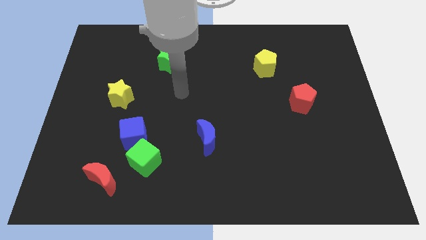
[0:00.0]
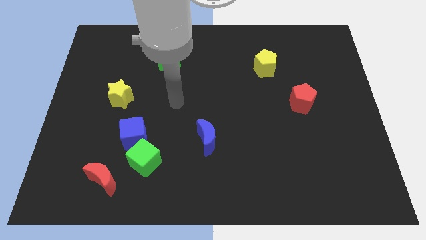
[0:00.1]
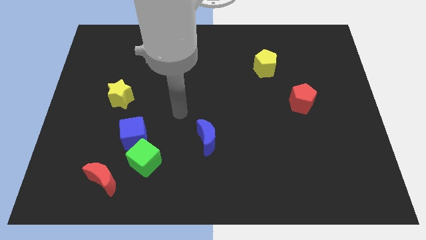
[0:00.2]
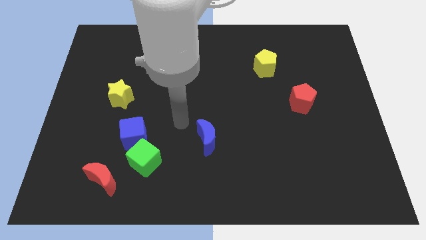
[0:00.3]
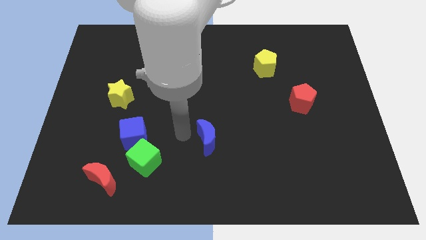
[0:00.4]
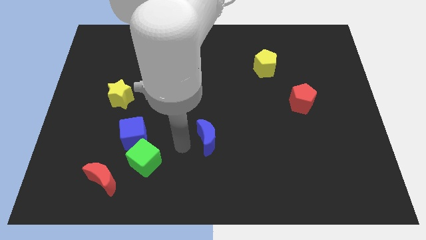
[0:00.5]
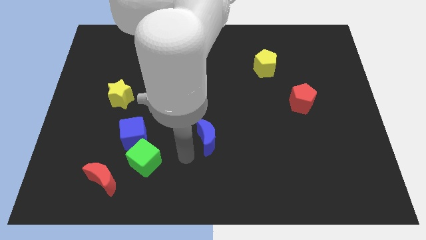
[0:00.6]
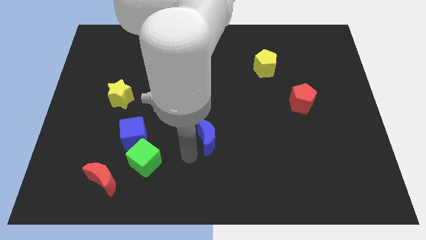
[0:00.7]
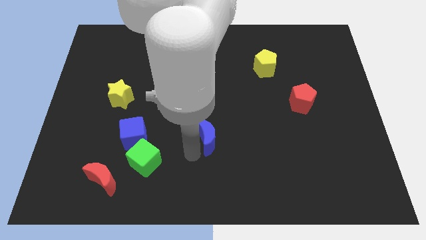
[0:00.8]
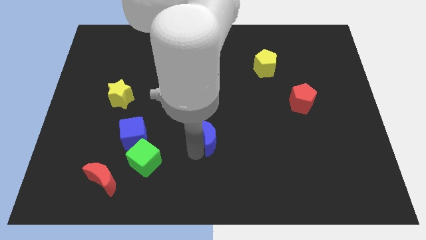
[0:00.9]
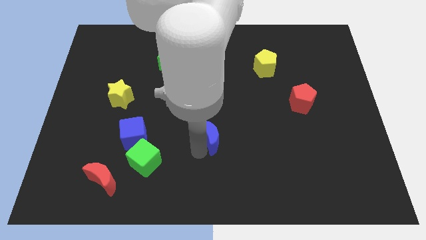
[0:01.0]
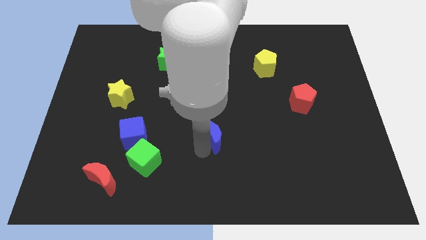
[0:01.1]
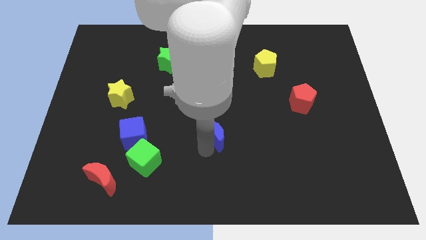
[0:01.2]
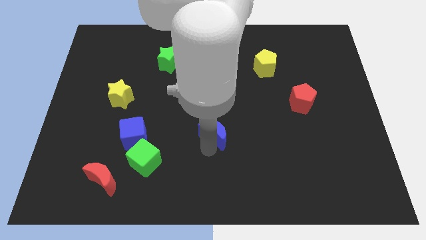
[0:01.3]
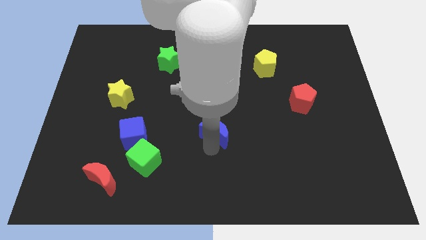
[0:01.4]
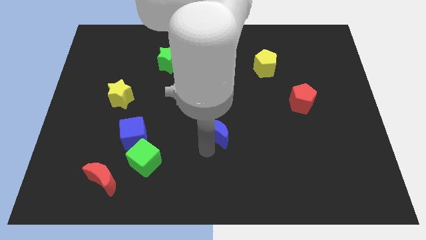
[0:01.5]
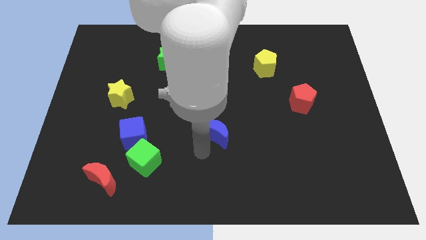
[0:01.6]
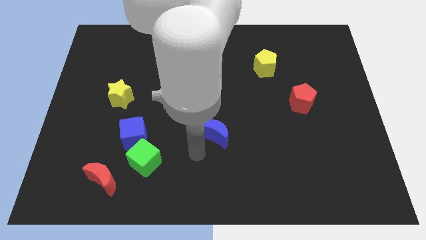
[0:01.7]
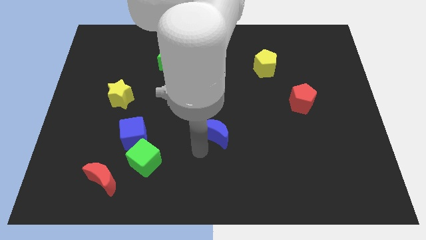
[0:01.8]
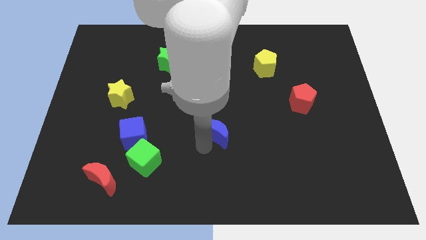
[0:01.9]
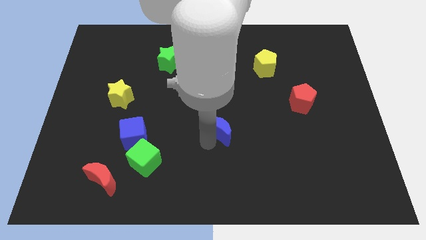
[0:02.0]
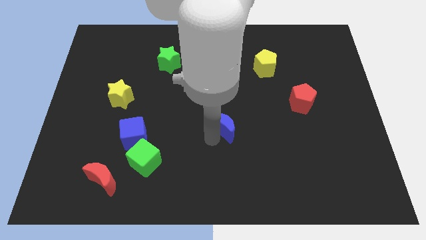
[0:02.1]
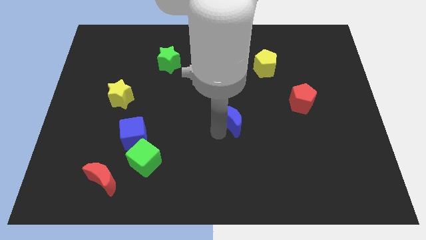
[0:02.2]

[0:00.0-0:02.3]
move the blue moon diagonally up and to the right a bit

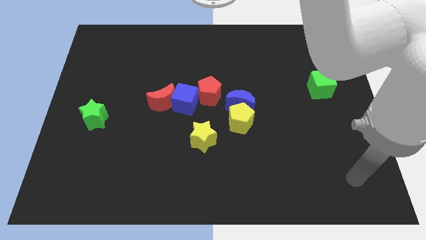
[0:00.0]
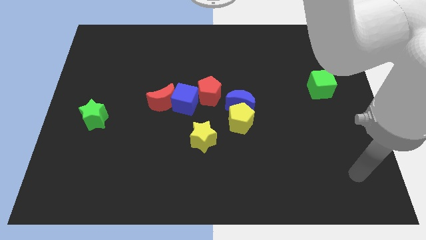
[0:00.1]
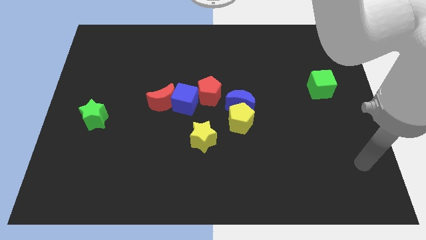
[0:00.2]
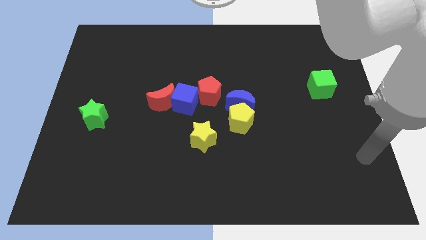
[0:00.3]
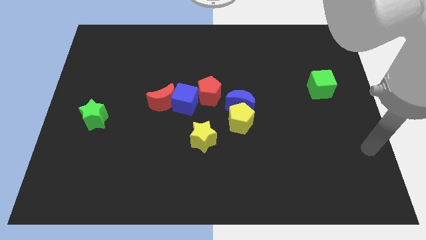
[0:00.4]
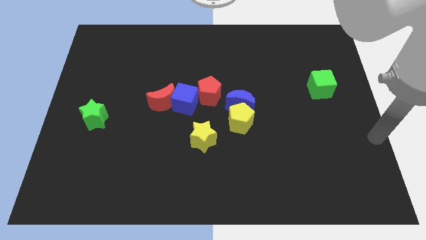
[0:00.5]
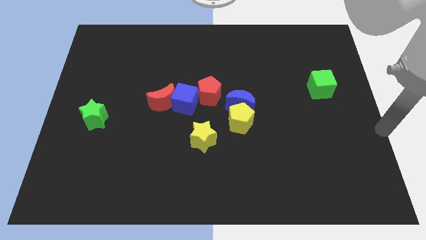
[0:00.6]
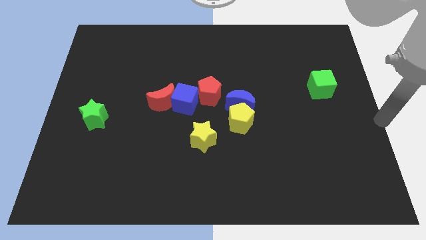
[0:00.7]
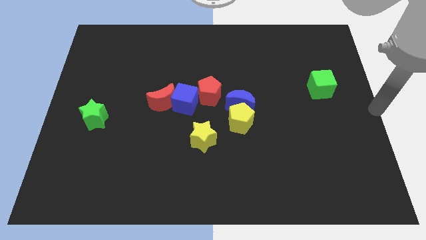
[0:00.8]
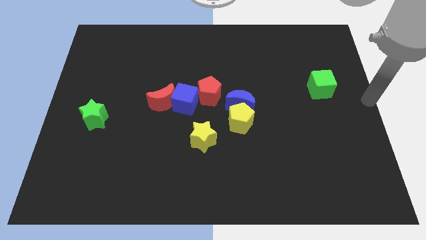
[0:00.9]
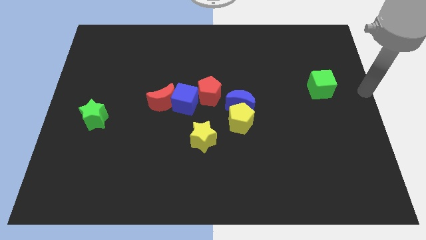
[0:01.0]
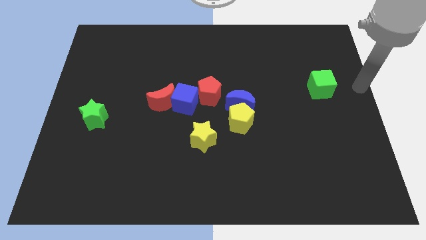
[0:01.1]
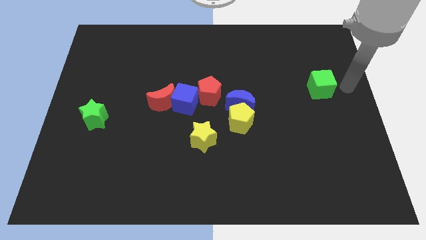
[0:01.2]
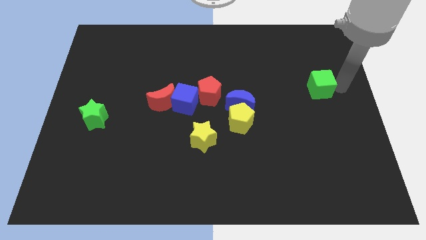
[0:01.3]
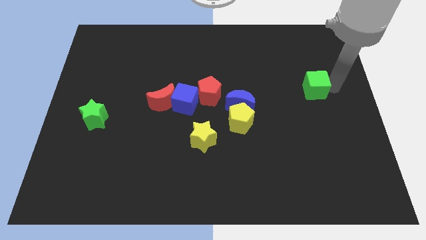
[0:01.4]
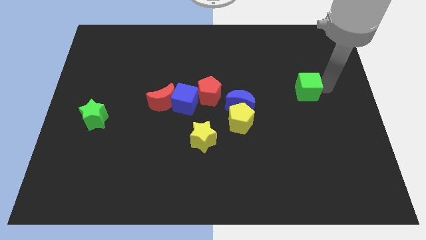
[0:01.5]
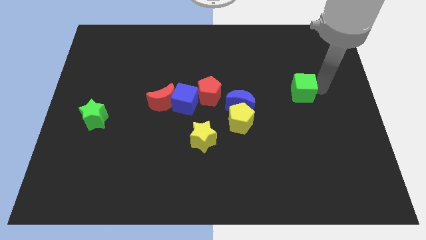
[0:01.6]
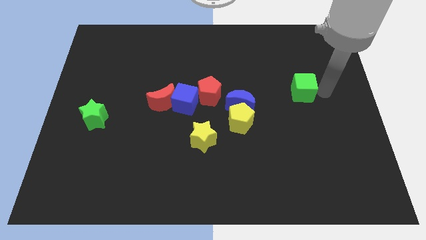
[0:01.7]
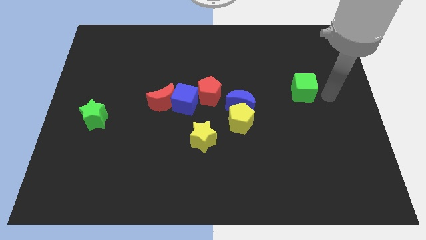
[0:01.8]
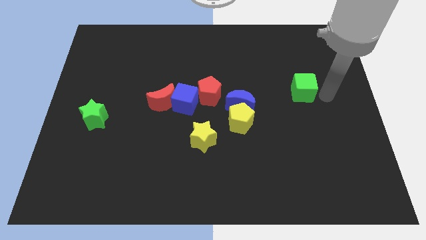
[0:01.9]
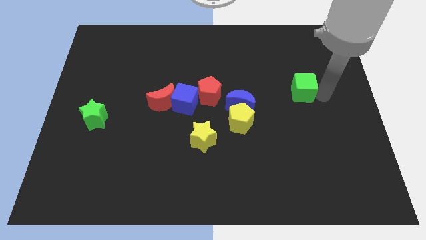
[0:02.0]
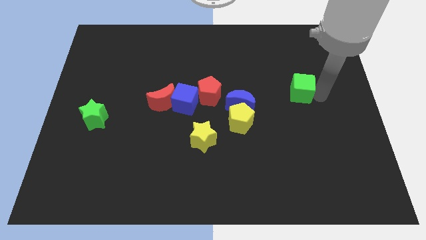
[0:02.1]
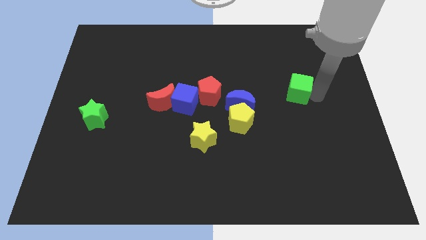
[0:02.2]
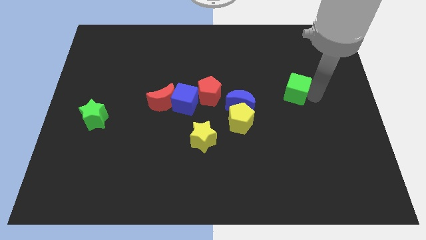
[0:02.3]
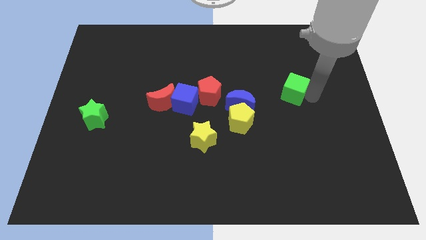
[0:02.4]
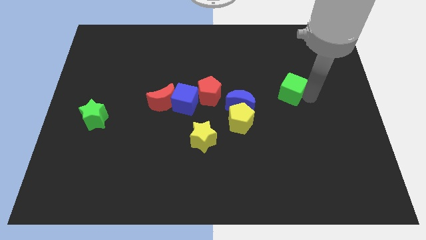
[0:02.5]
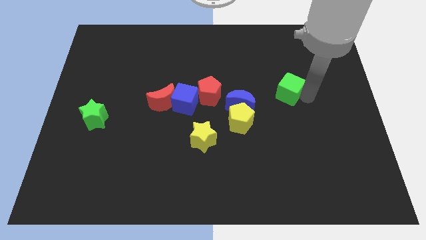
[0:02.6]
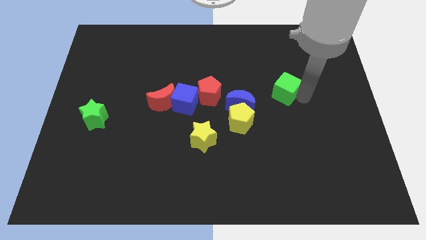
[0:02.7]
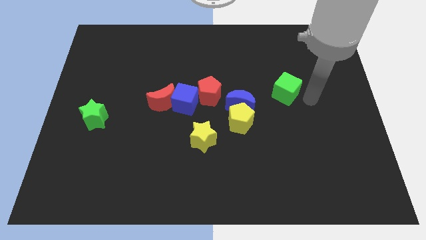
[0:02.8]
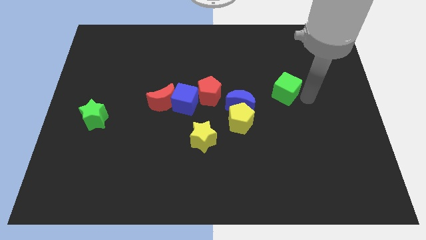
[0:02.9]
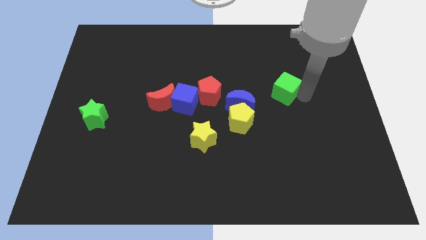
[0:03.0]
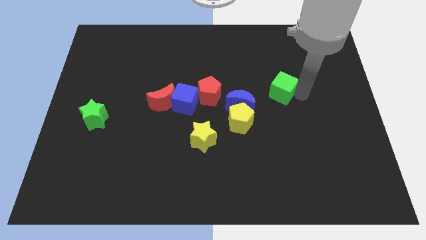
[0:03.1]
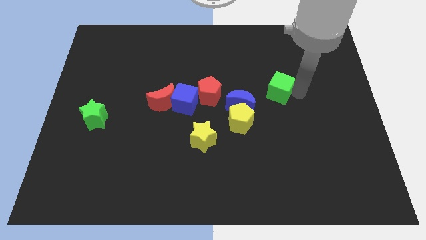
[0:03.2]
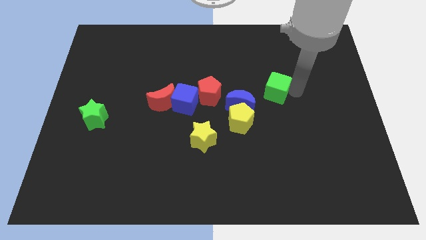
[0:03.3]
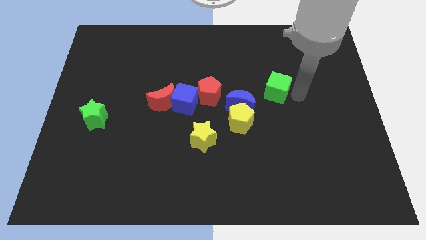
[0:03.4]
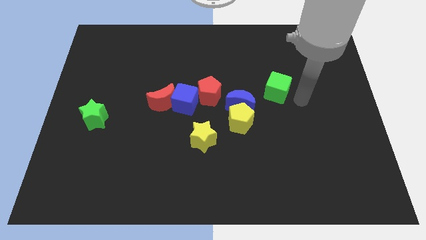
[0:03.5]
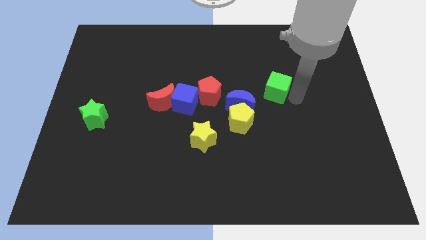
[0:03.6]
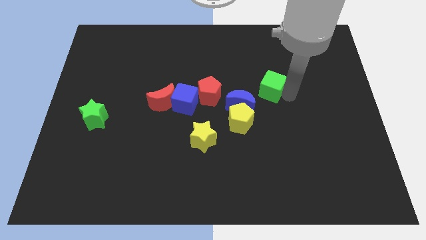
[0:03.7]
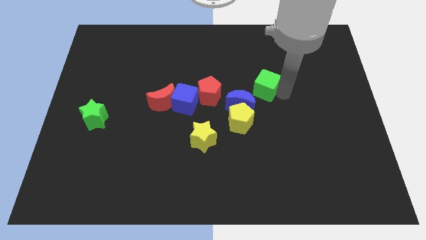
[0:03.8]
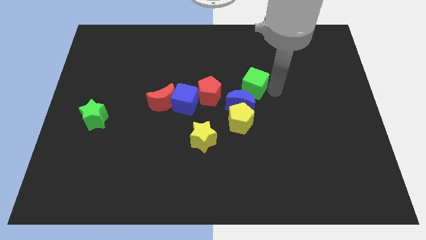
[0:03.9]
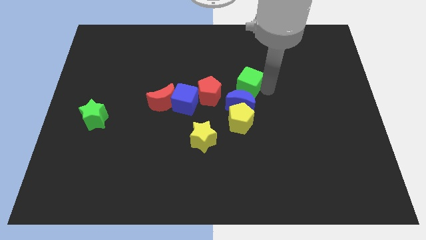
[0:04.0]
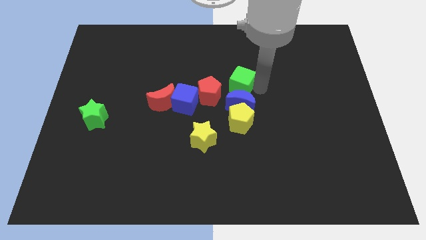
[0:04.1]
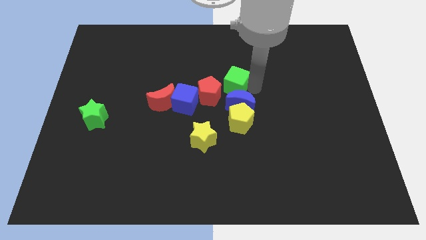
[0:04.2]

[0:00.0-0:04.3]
push the green cube to the left

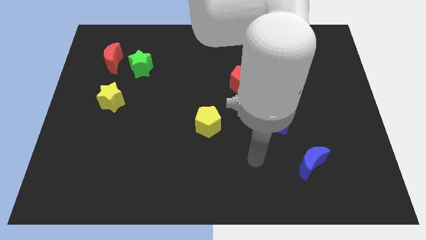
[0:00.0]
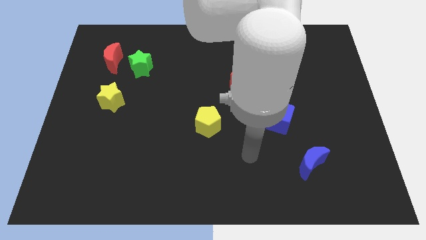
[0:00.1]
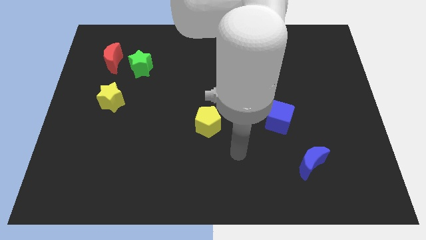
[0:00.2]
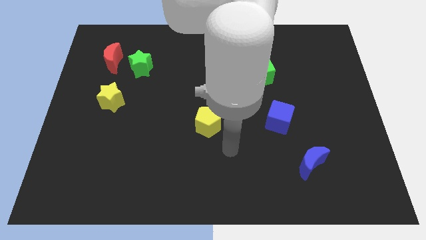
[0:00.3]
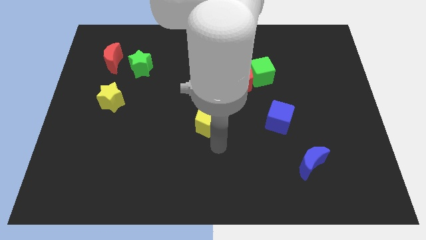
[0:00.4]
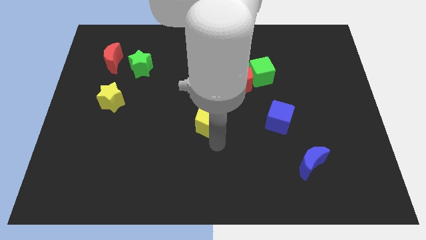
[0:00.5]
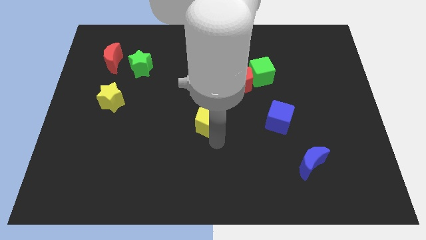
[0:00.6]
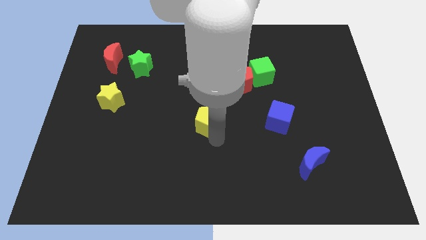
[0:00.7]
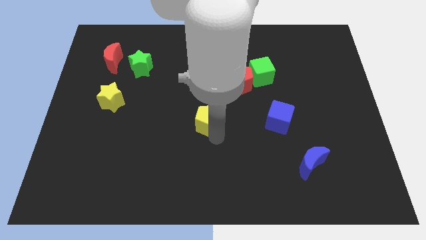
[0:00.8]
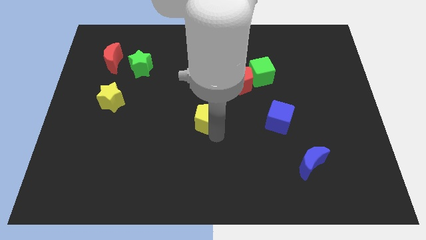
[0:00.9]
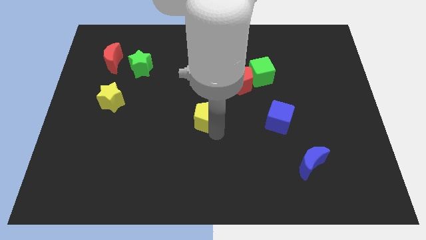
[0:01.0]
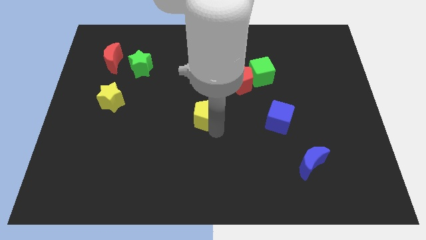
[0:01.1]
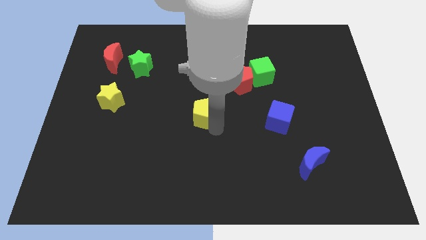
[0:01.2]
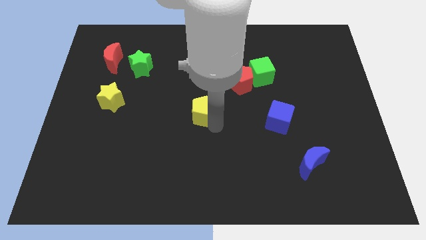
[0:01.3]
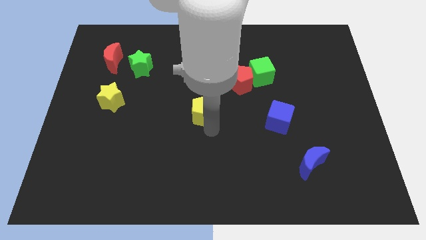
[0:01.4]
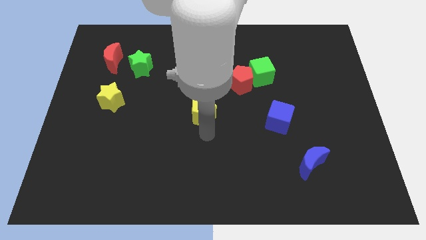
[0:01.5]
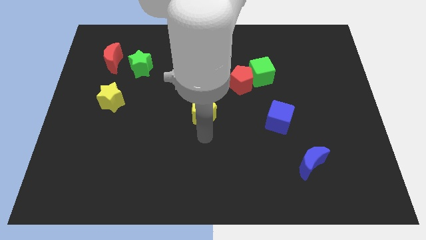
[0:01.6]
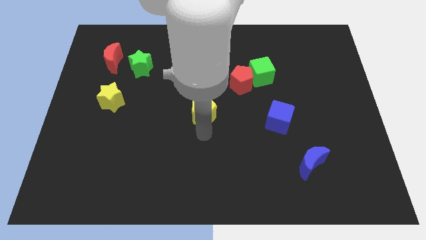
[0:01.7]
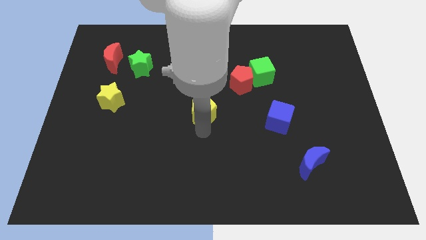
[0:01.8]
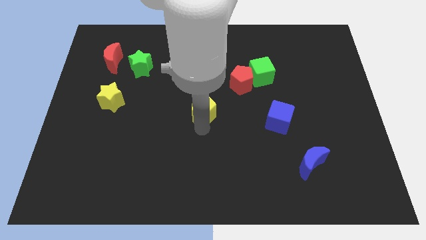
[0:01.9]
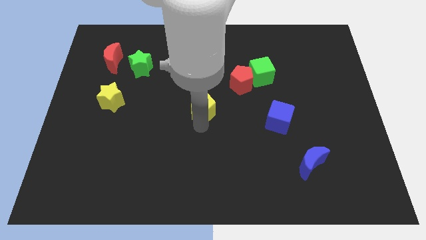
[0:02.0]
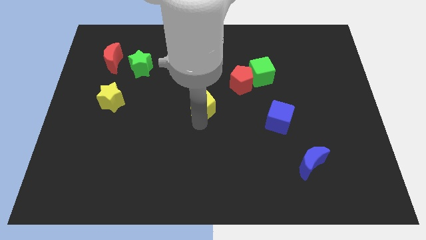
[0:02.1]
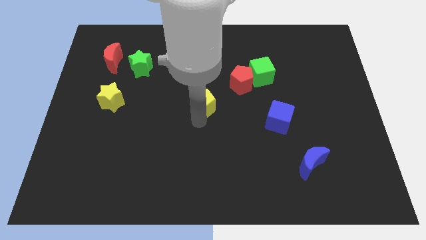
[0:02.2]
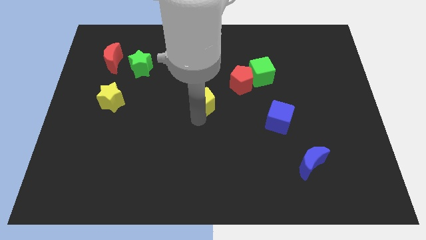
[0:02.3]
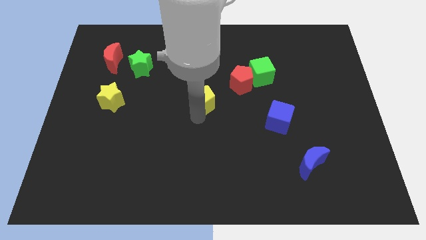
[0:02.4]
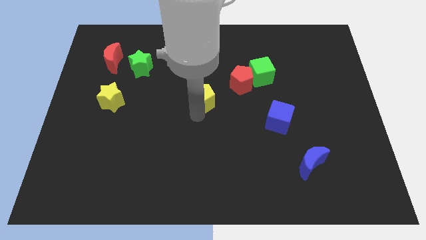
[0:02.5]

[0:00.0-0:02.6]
move the yellow pentagon slightly up
